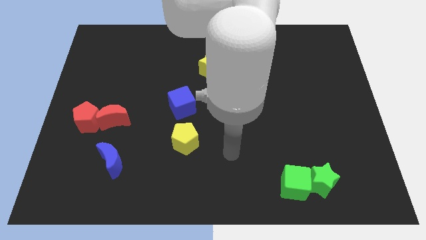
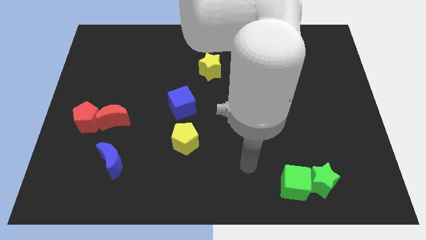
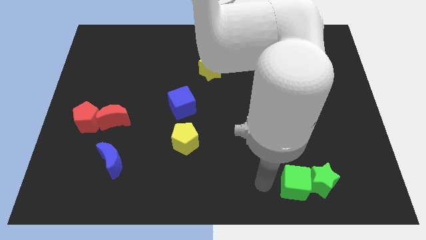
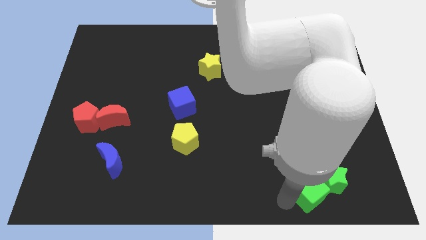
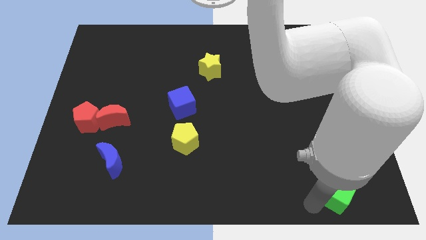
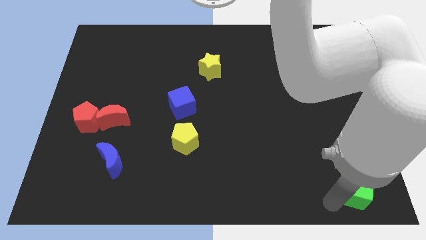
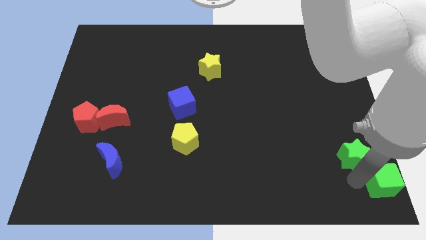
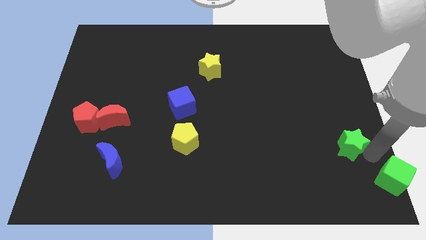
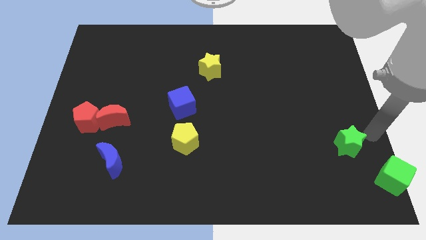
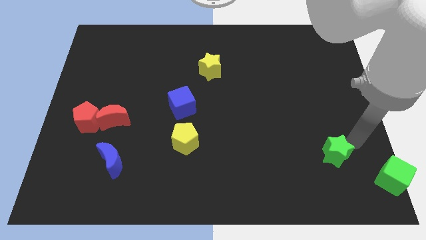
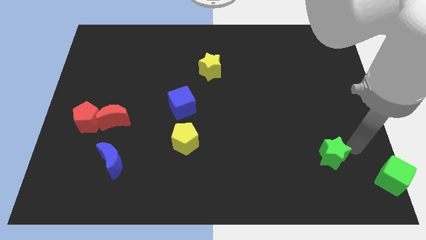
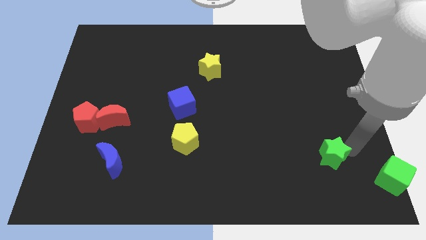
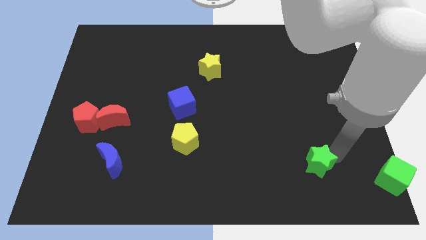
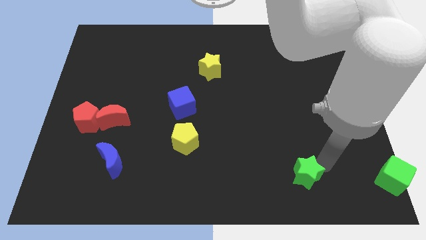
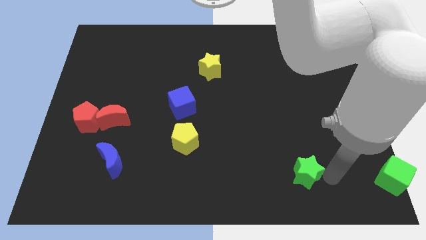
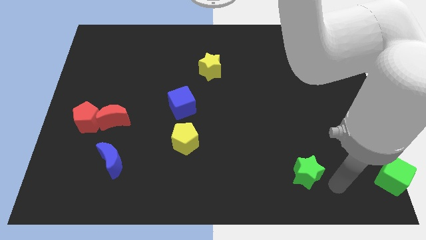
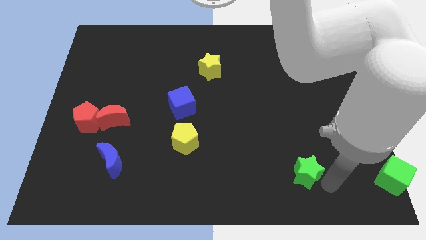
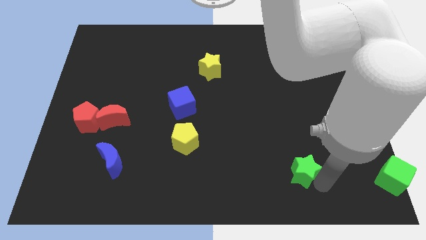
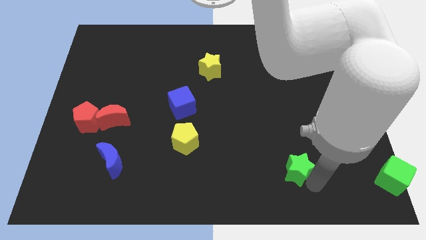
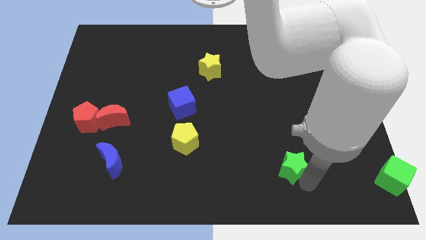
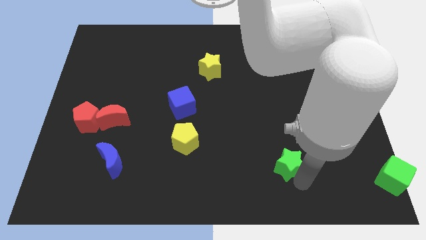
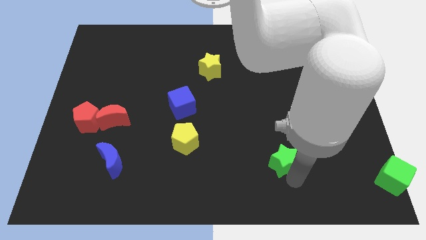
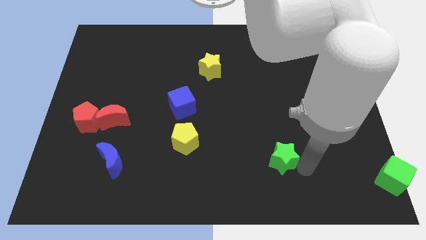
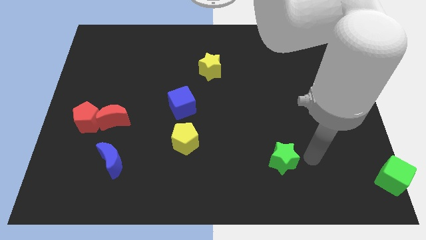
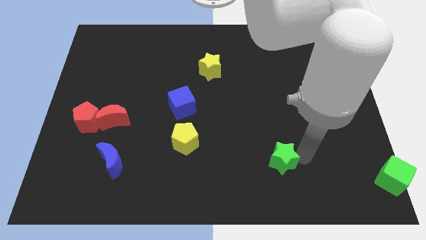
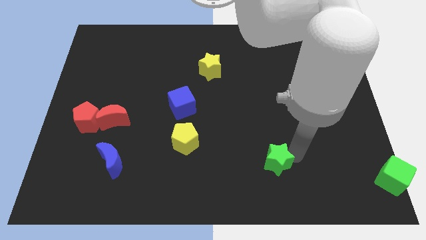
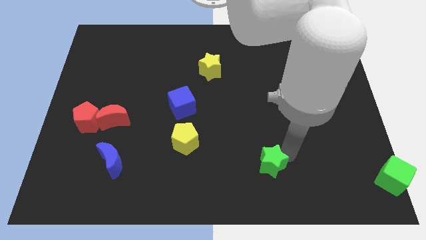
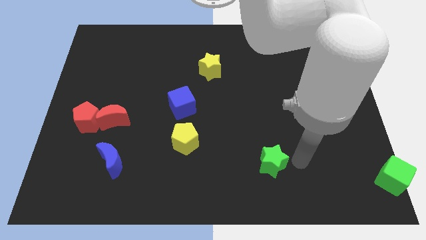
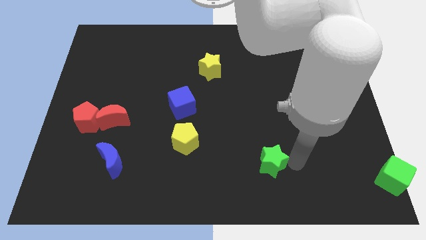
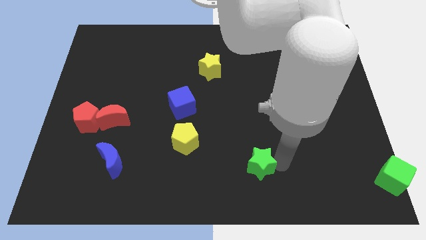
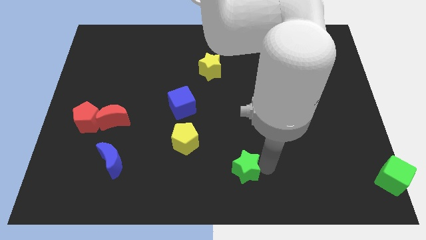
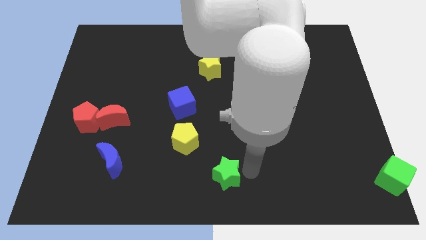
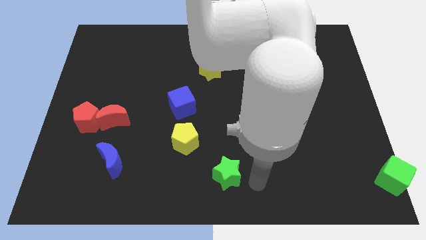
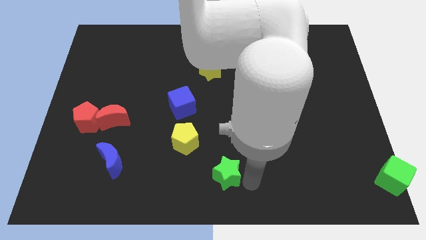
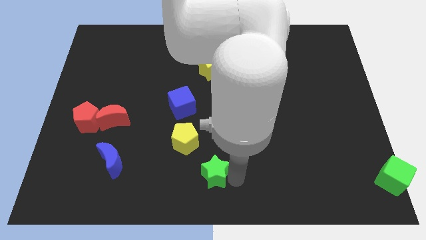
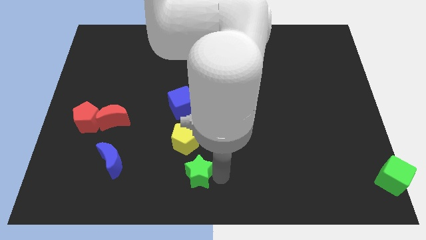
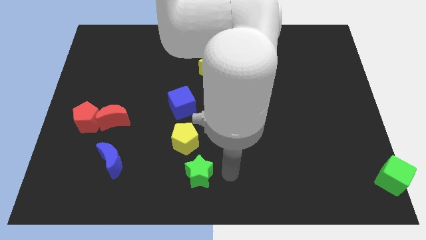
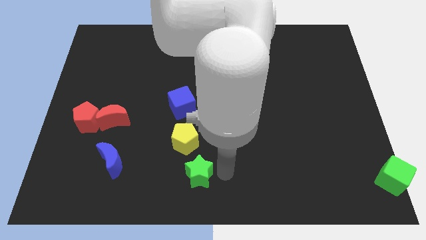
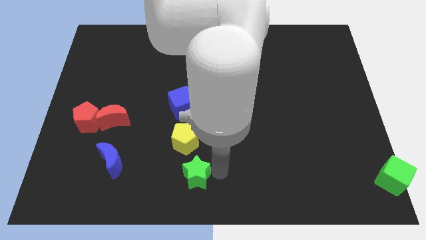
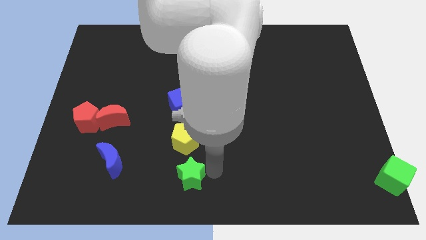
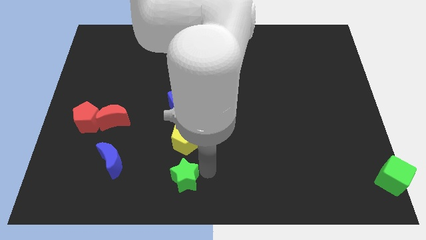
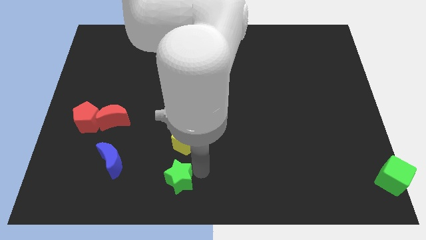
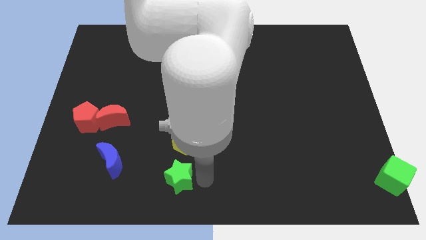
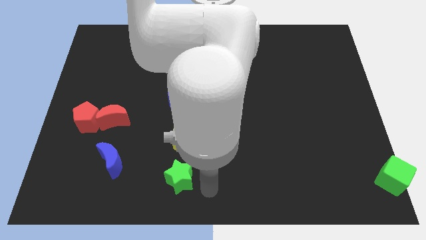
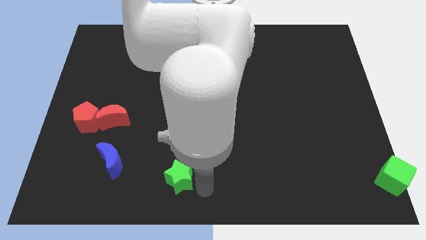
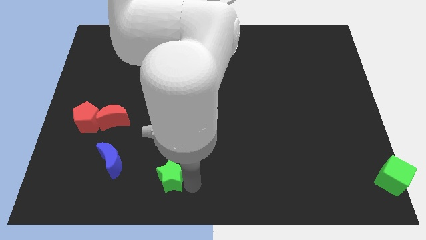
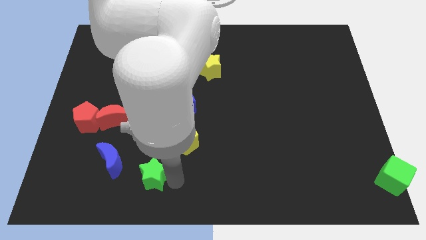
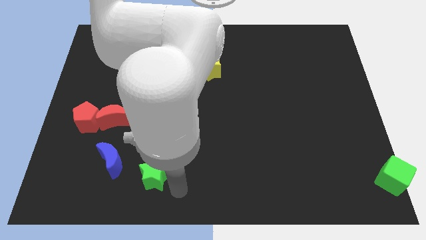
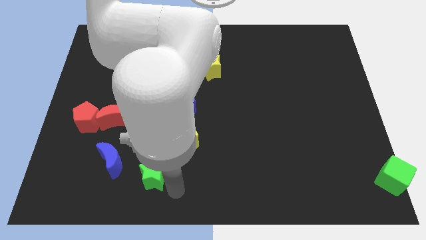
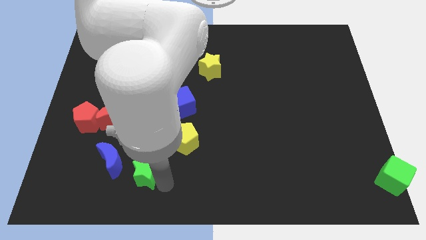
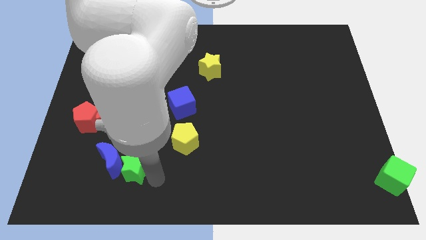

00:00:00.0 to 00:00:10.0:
put the green star next to the blue moon

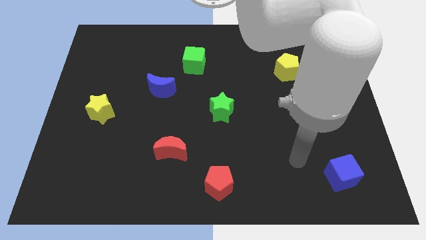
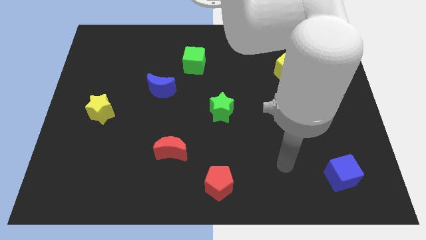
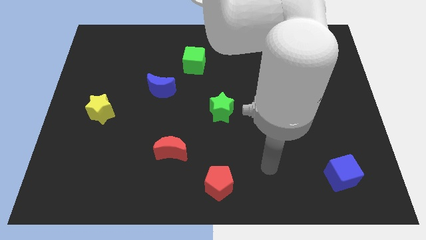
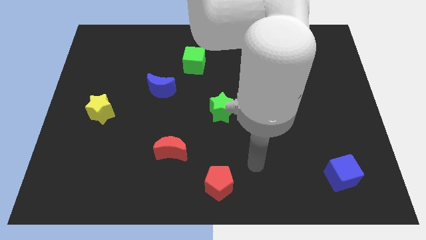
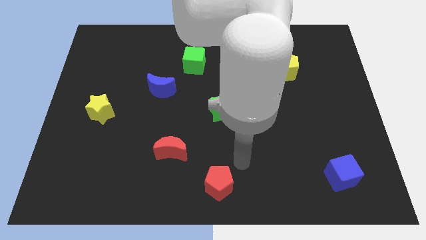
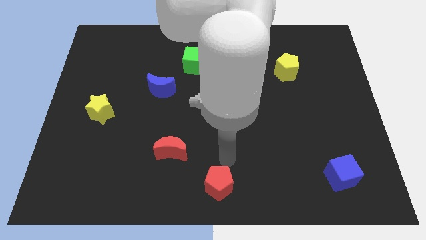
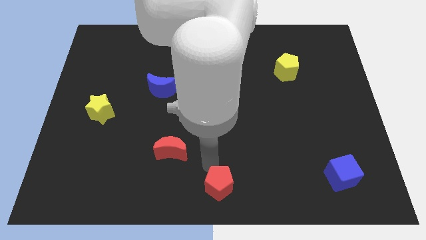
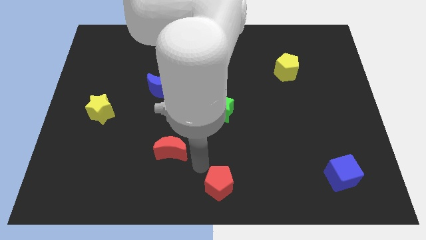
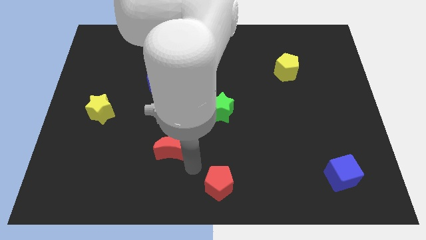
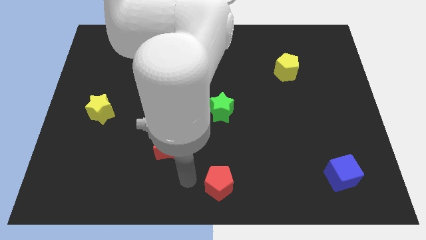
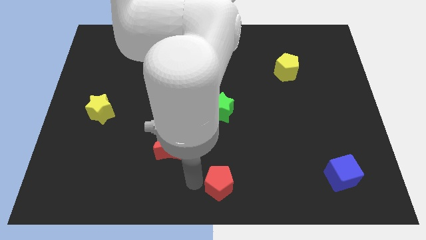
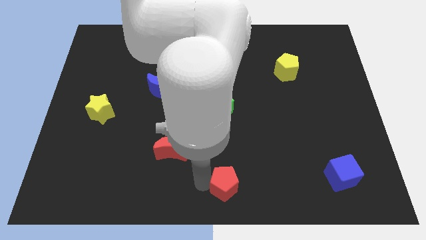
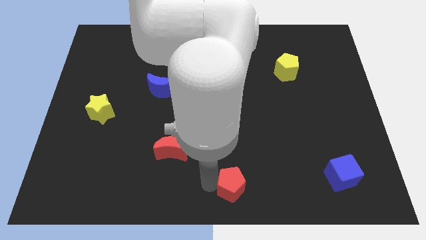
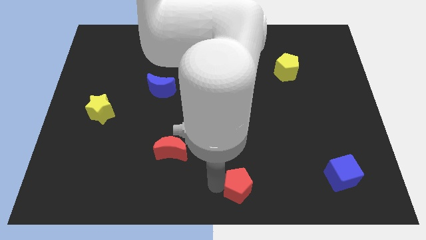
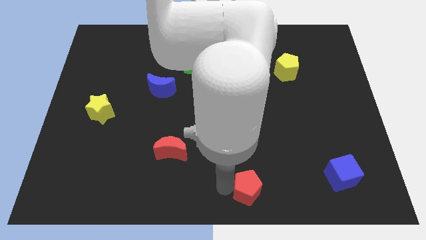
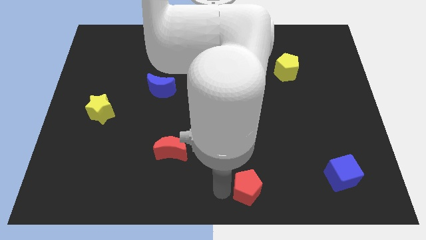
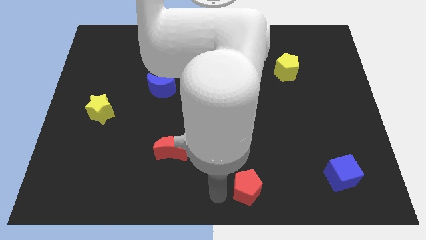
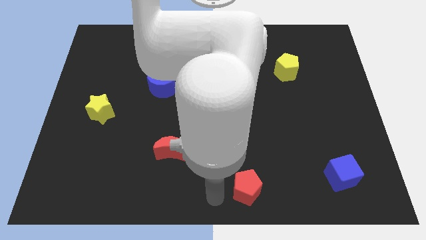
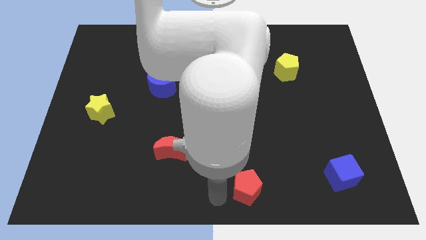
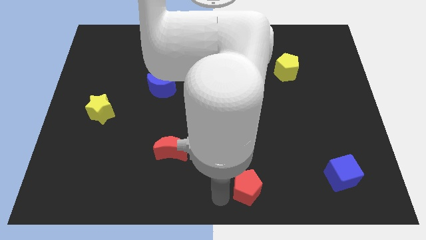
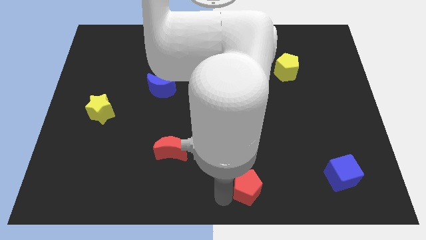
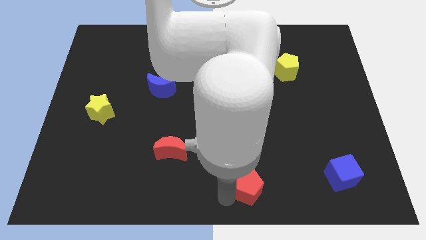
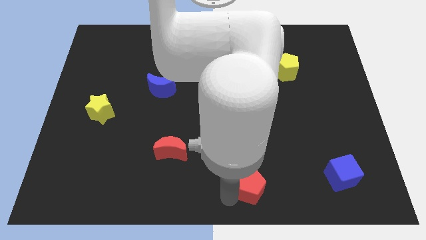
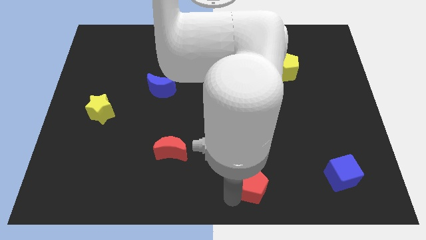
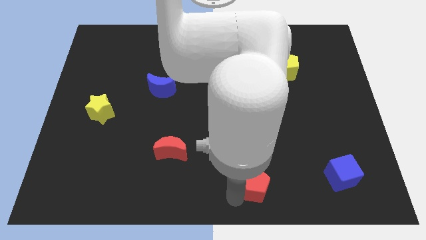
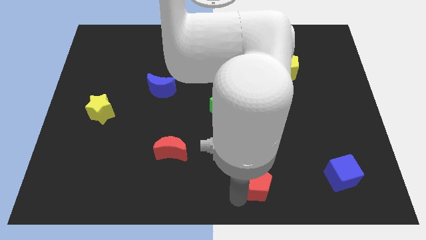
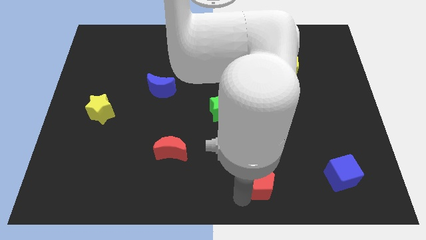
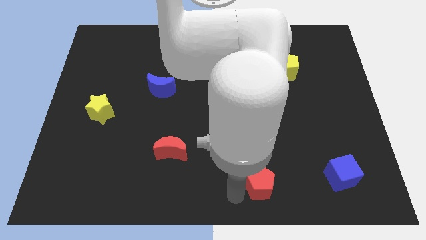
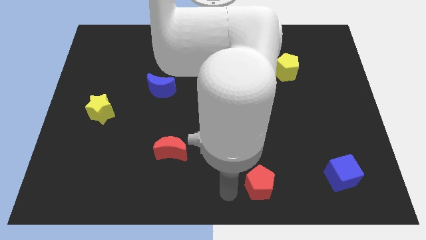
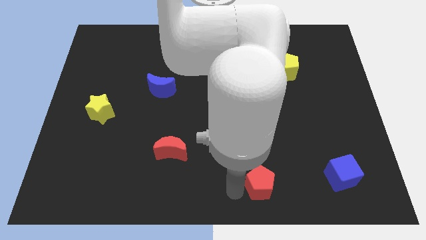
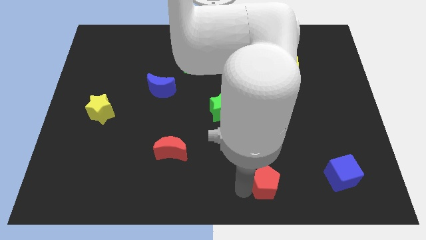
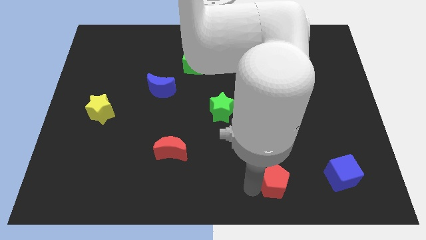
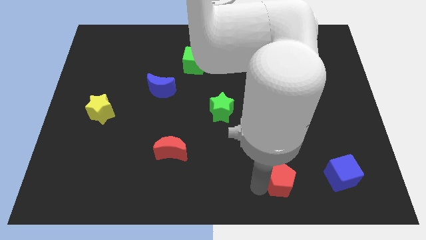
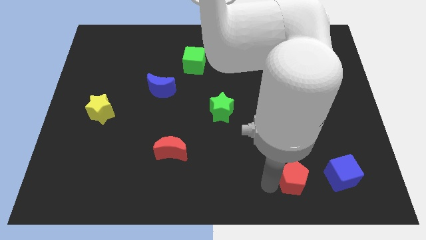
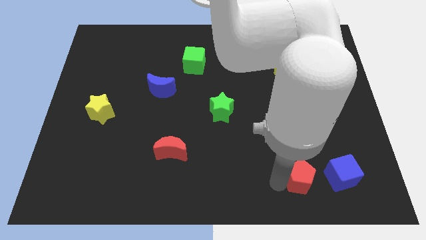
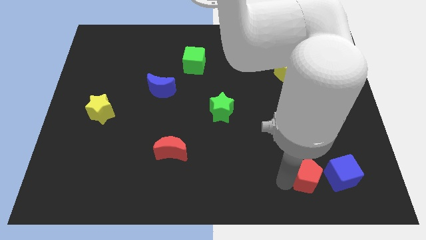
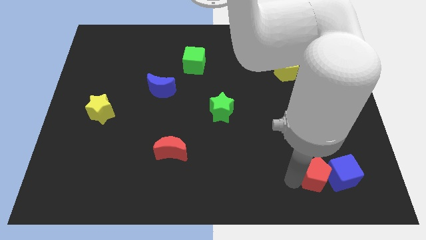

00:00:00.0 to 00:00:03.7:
push the red pentagon towards the blue cube
